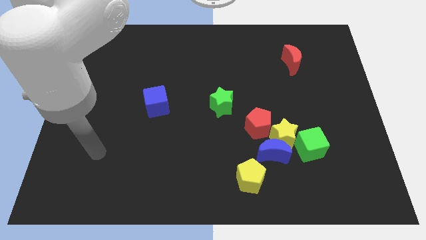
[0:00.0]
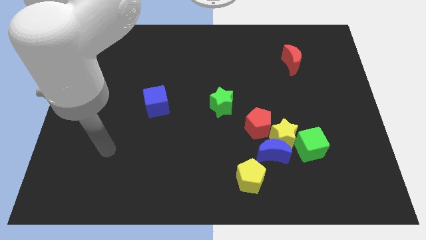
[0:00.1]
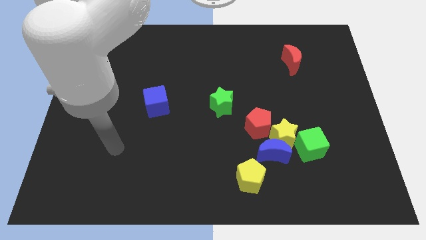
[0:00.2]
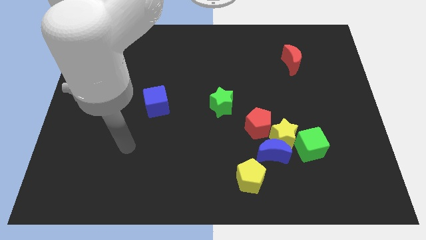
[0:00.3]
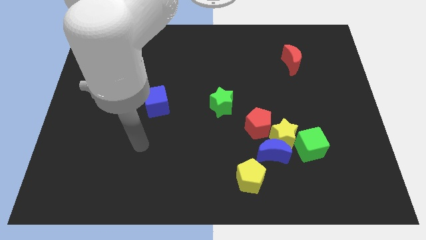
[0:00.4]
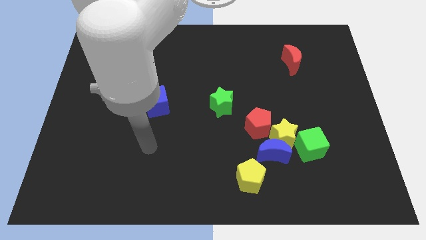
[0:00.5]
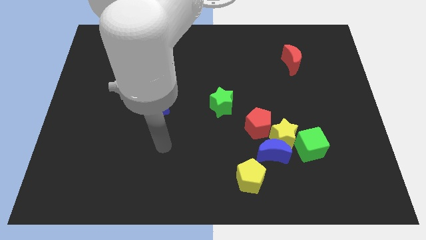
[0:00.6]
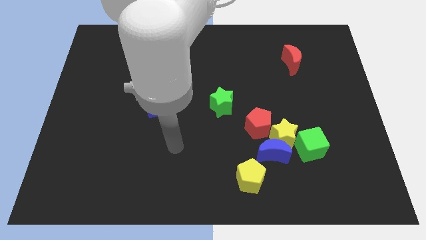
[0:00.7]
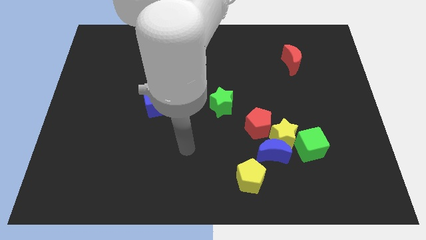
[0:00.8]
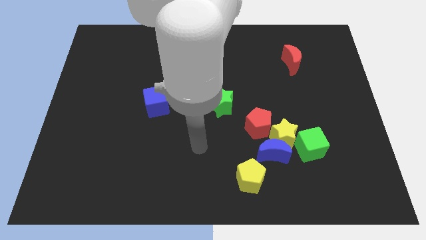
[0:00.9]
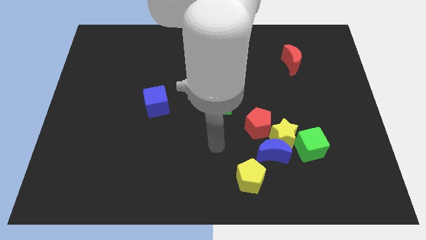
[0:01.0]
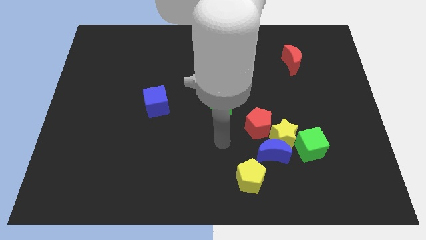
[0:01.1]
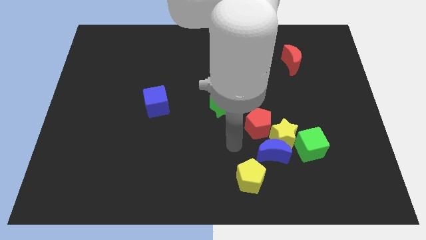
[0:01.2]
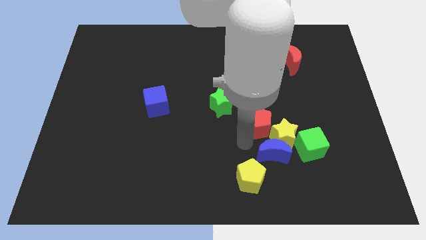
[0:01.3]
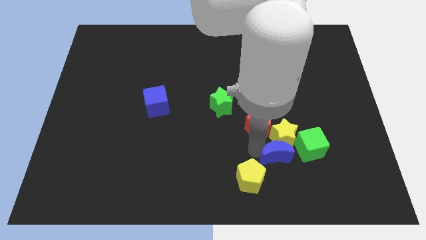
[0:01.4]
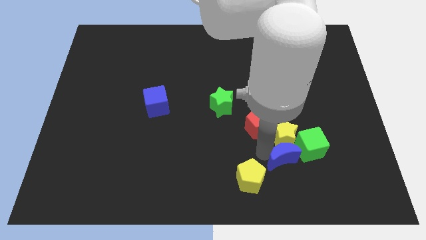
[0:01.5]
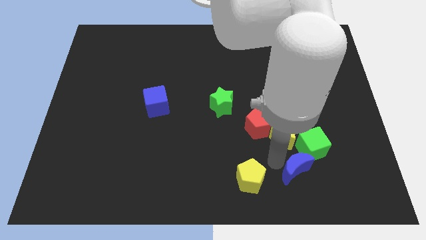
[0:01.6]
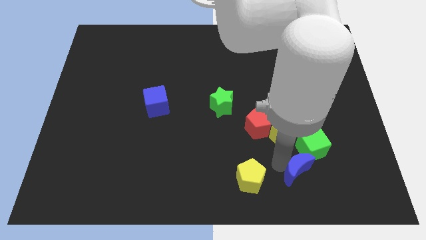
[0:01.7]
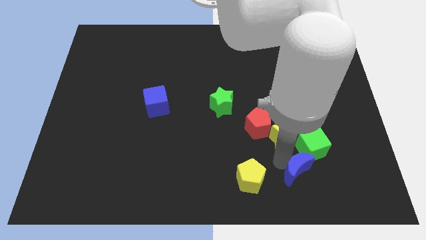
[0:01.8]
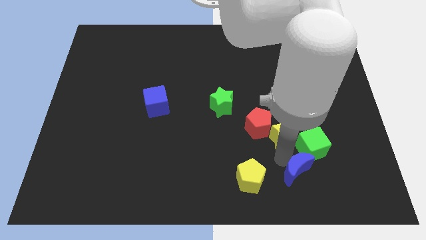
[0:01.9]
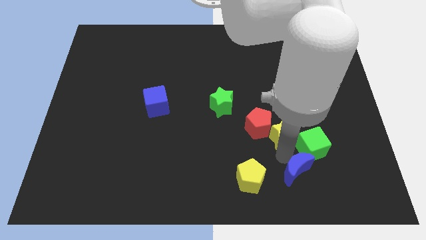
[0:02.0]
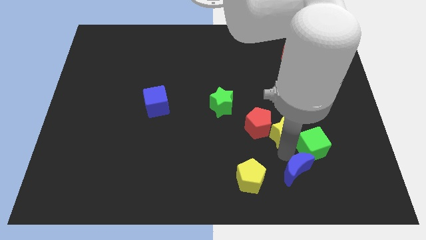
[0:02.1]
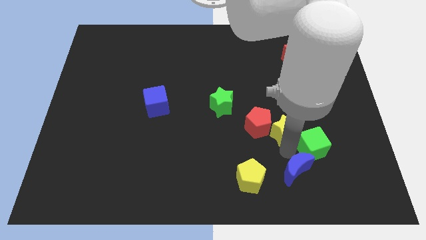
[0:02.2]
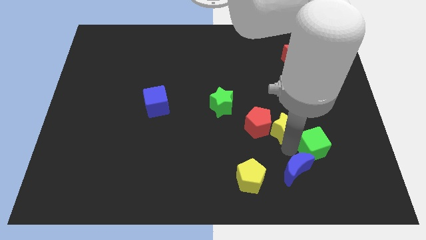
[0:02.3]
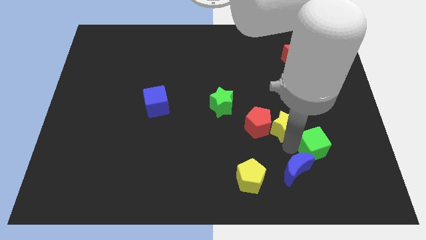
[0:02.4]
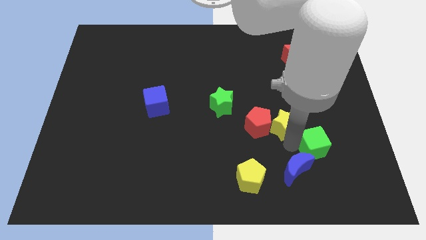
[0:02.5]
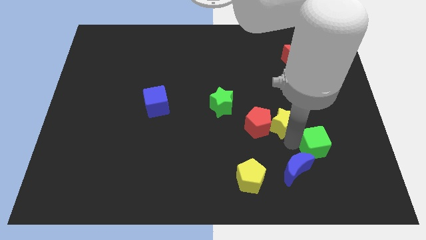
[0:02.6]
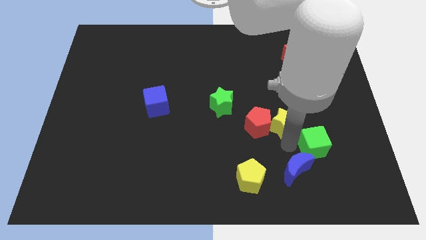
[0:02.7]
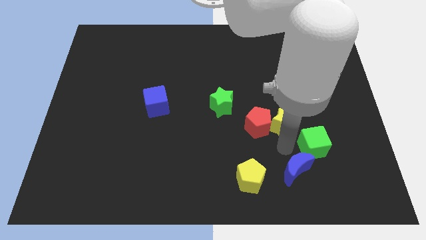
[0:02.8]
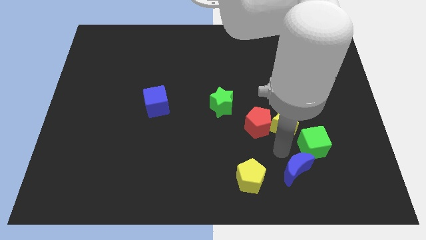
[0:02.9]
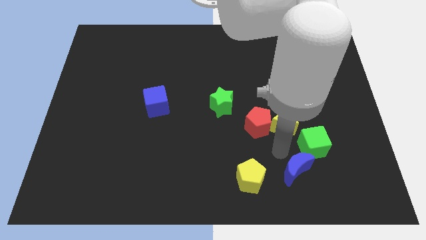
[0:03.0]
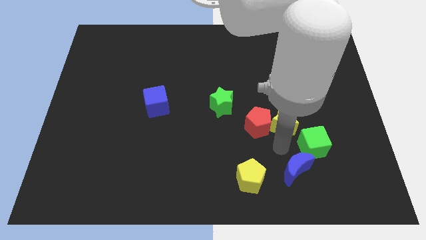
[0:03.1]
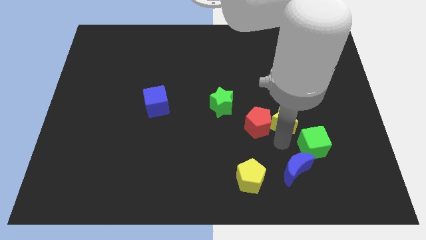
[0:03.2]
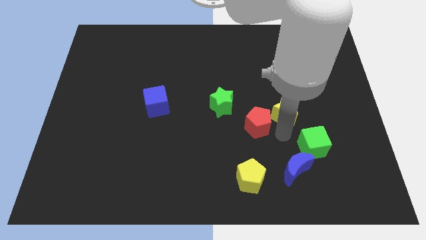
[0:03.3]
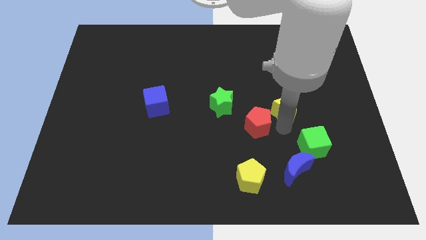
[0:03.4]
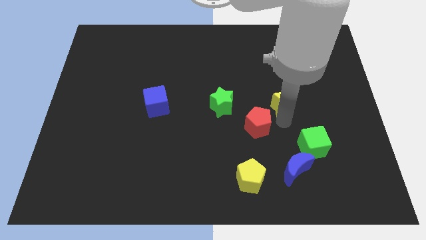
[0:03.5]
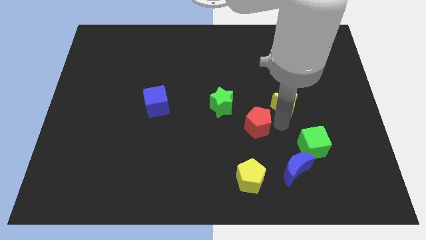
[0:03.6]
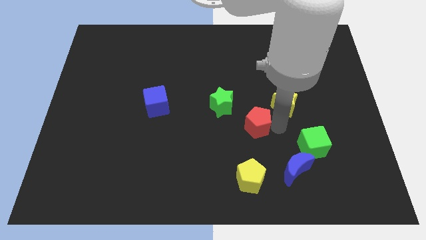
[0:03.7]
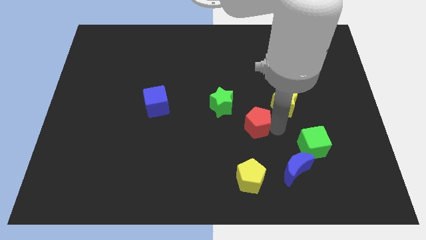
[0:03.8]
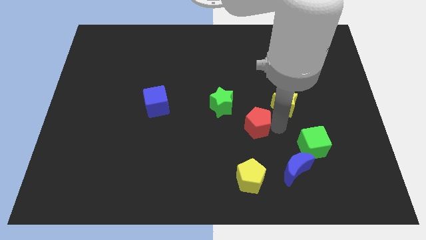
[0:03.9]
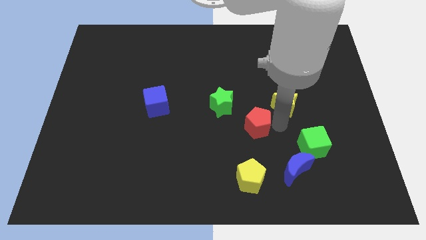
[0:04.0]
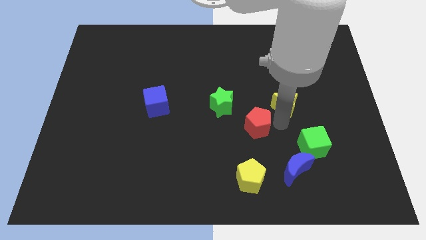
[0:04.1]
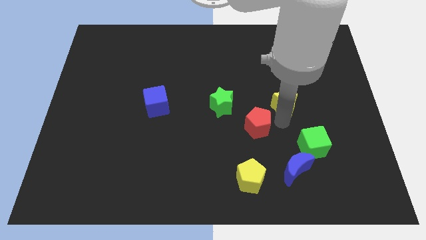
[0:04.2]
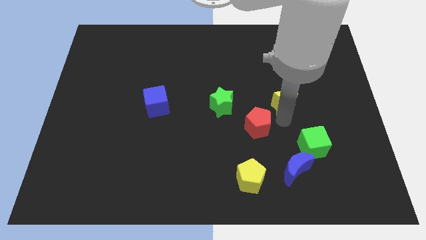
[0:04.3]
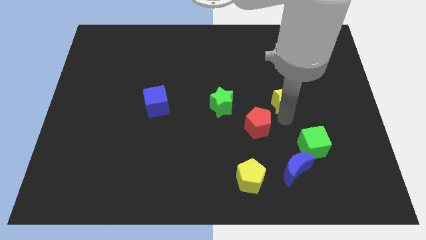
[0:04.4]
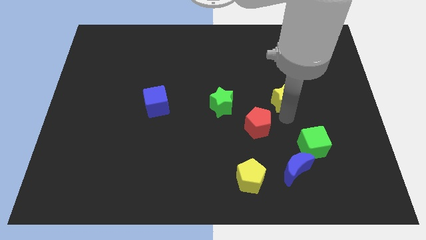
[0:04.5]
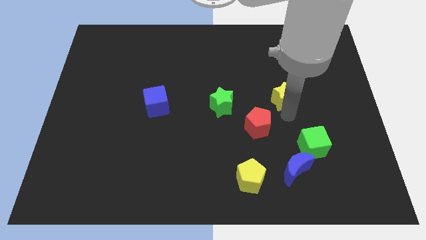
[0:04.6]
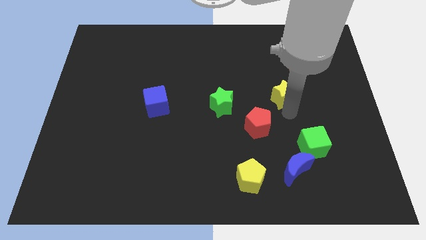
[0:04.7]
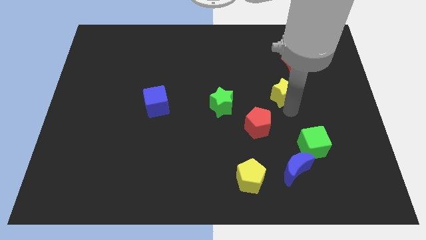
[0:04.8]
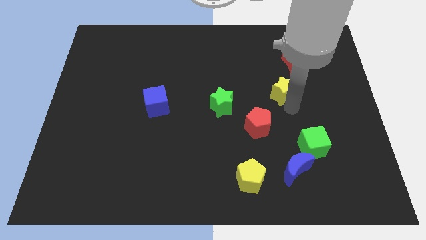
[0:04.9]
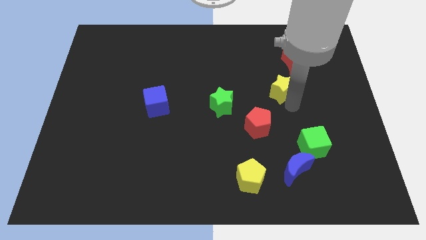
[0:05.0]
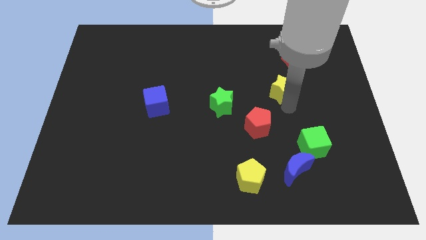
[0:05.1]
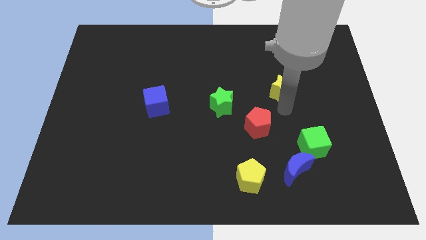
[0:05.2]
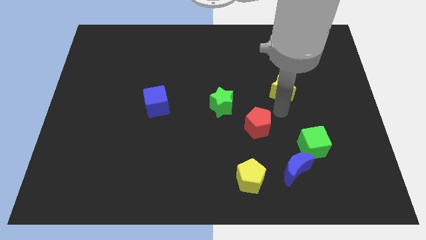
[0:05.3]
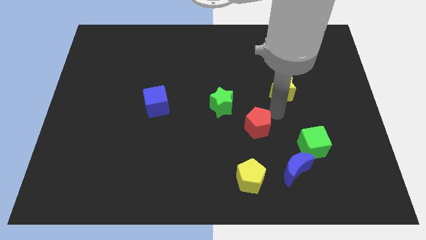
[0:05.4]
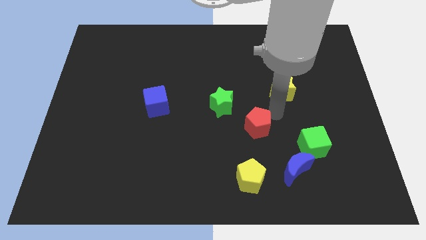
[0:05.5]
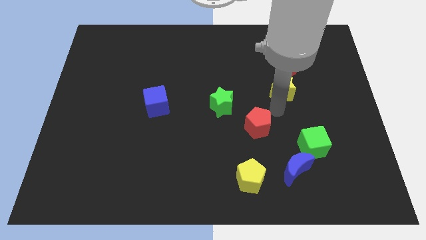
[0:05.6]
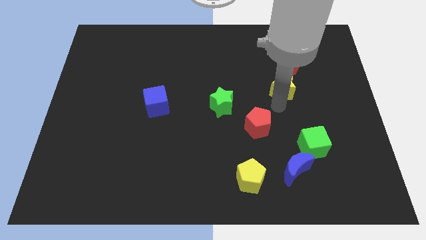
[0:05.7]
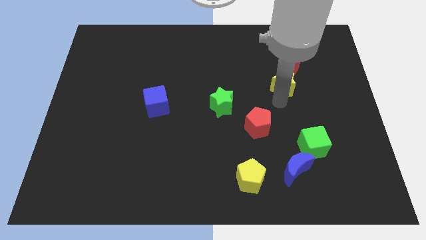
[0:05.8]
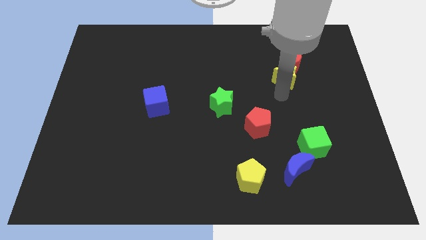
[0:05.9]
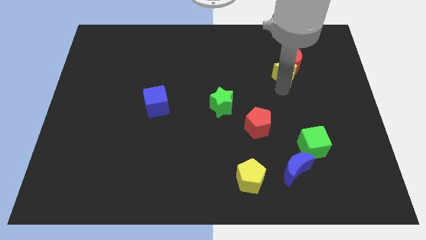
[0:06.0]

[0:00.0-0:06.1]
slide the yellow star next to the red moon

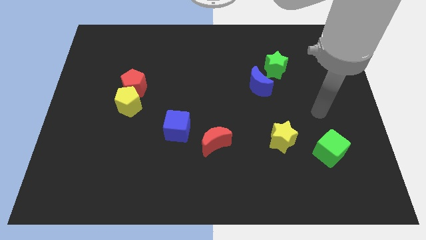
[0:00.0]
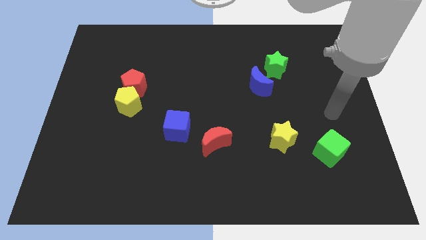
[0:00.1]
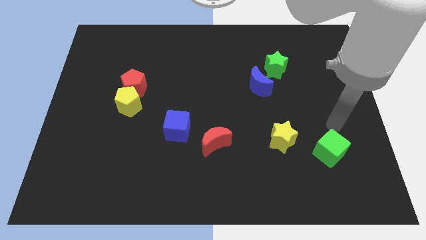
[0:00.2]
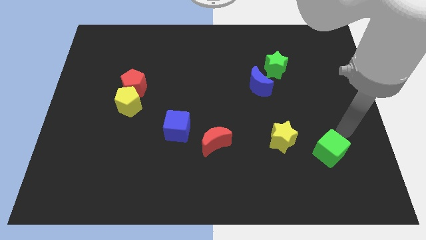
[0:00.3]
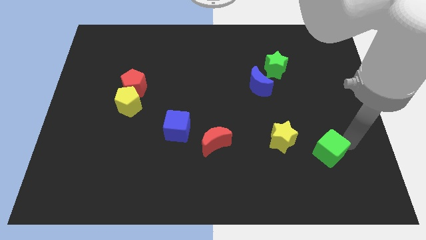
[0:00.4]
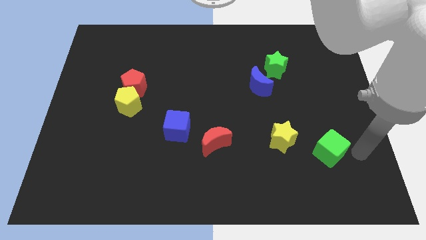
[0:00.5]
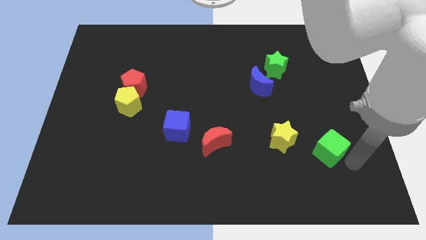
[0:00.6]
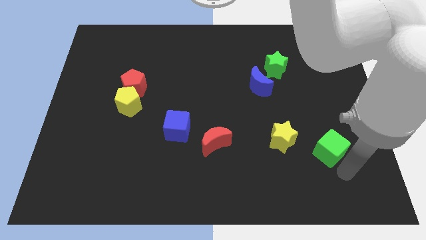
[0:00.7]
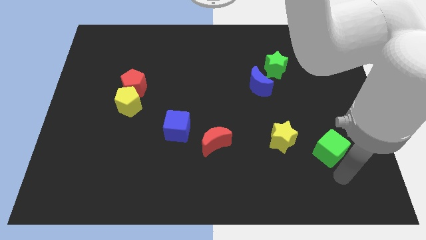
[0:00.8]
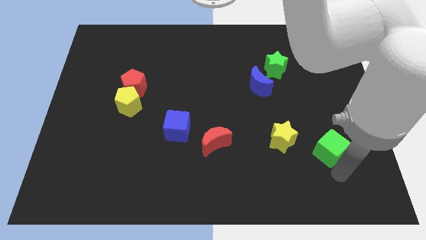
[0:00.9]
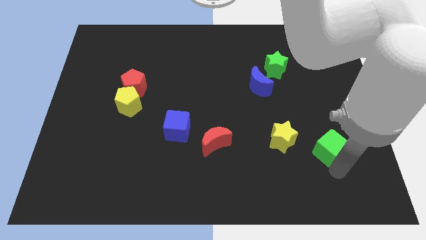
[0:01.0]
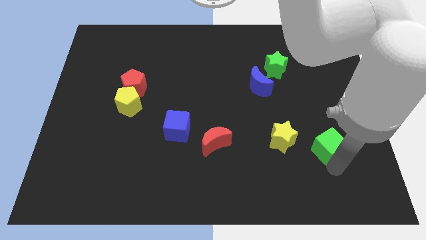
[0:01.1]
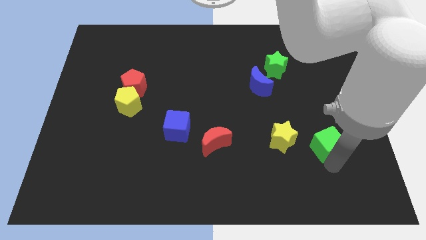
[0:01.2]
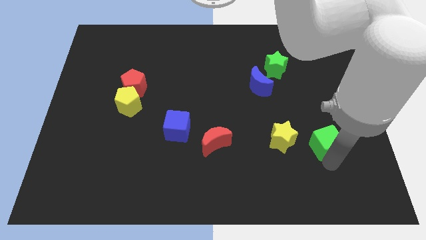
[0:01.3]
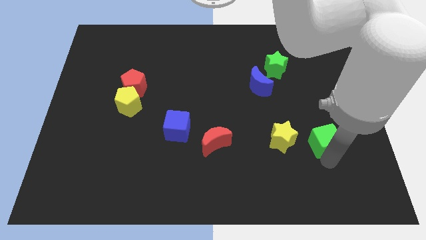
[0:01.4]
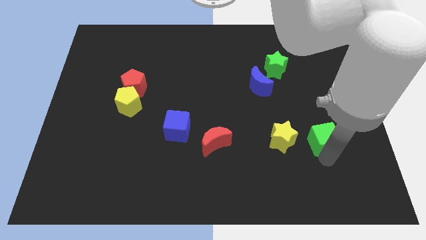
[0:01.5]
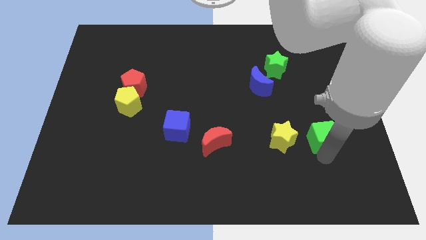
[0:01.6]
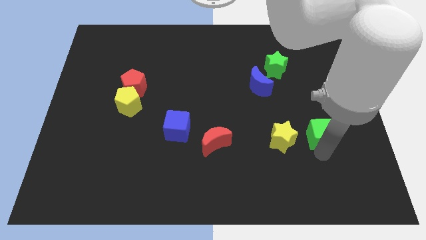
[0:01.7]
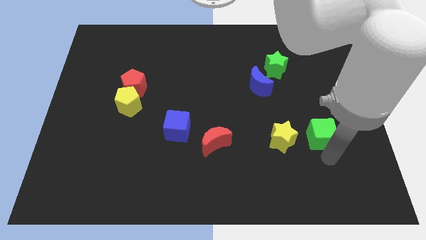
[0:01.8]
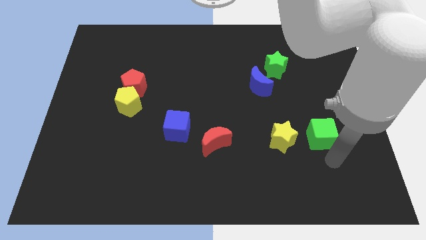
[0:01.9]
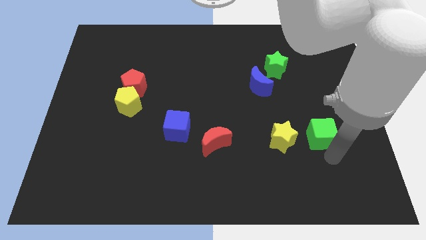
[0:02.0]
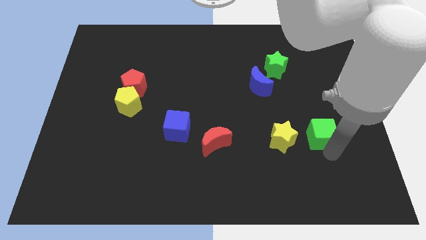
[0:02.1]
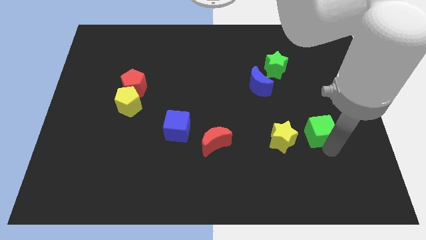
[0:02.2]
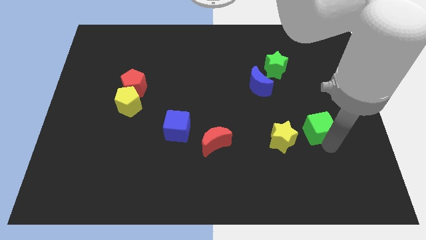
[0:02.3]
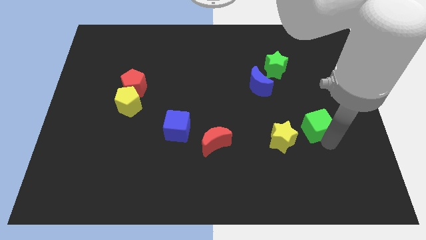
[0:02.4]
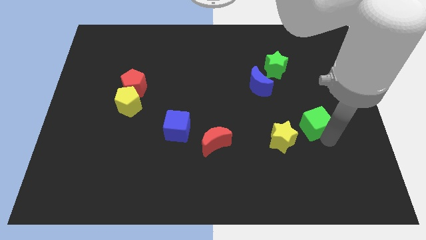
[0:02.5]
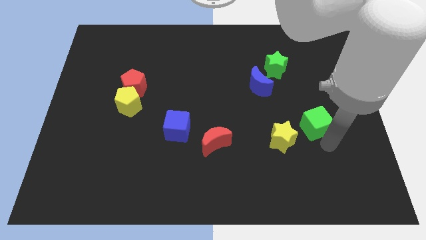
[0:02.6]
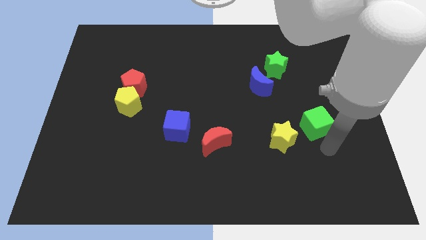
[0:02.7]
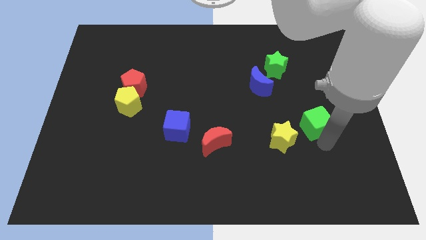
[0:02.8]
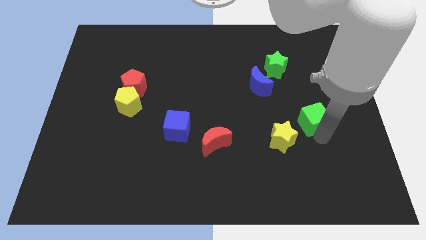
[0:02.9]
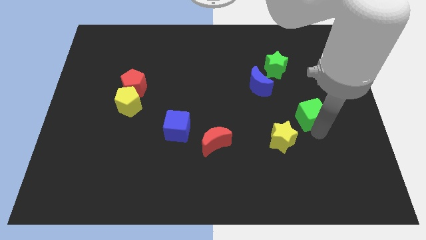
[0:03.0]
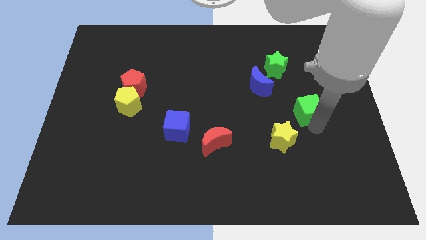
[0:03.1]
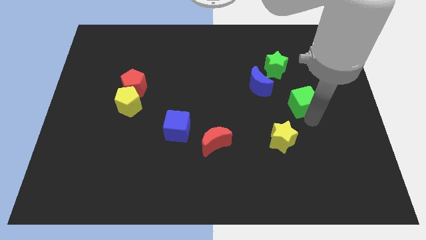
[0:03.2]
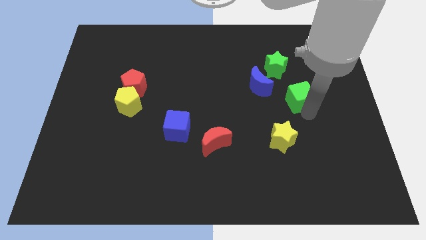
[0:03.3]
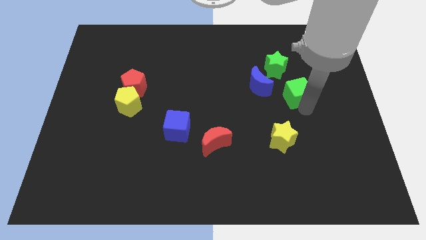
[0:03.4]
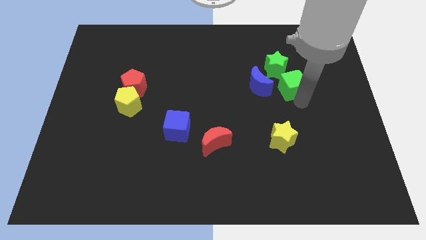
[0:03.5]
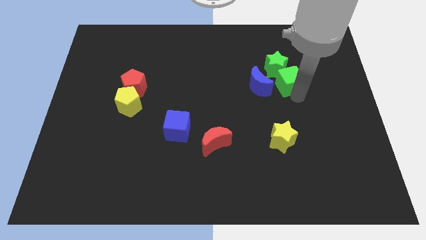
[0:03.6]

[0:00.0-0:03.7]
move the green cube next to the green star
